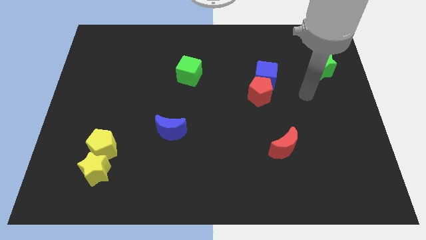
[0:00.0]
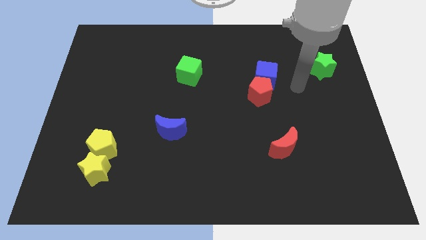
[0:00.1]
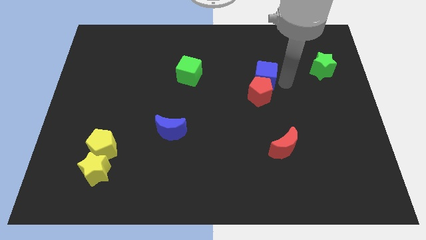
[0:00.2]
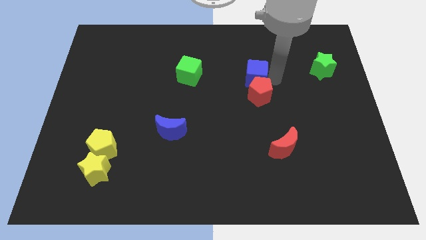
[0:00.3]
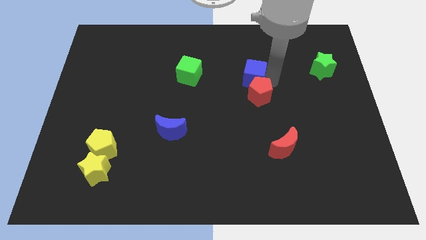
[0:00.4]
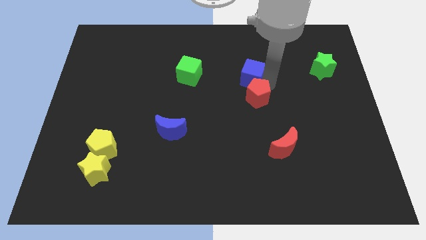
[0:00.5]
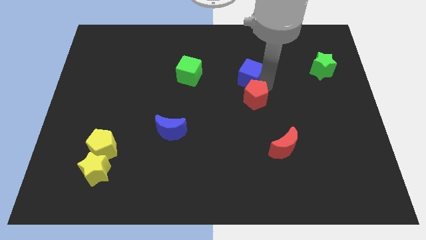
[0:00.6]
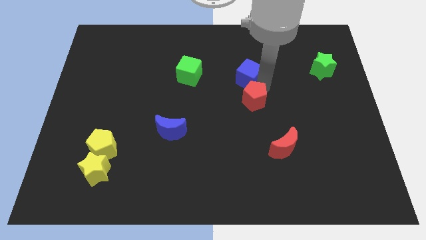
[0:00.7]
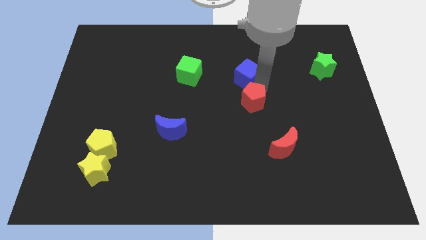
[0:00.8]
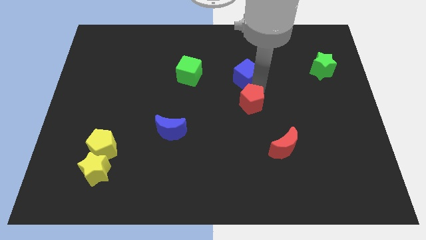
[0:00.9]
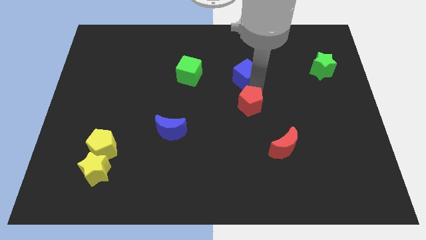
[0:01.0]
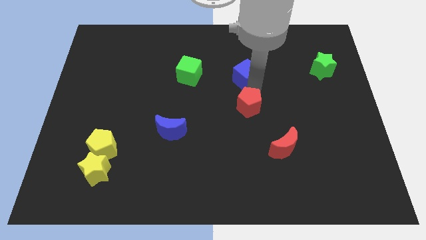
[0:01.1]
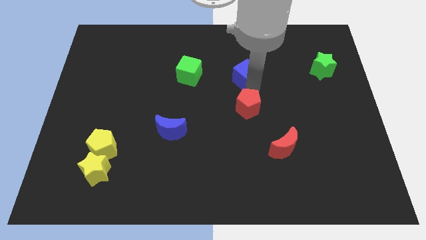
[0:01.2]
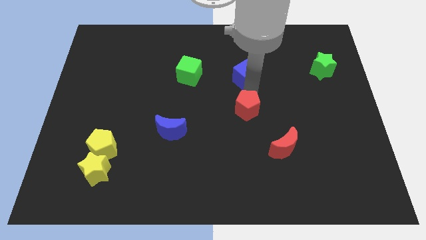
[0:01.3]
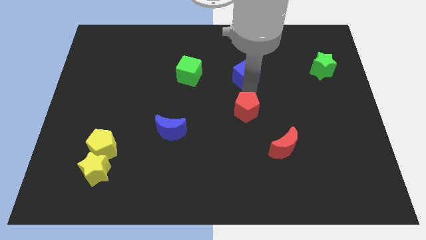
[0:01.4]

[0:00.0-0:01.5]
separate the red pentagon from the blue cube

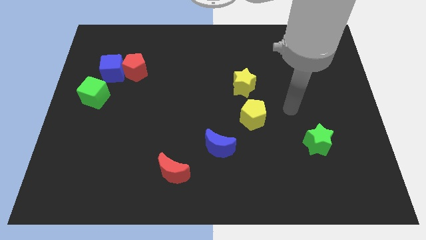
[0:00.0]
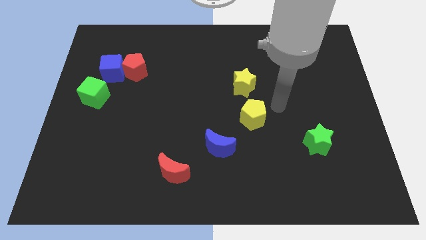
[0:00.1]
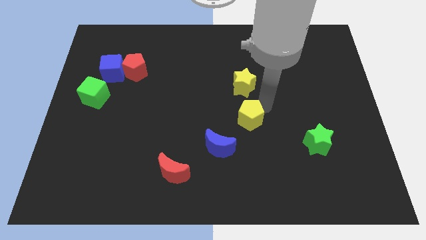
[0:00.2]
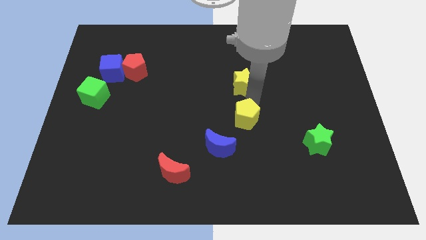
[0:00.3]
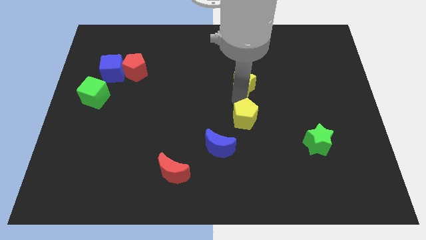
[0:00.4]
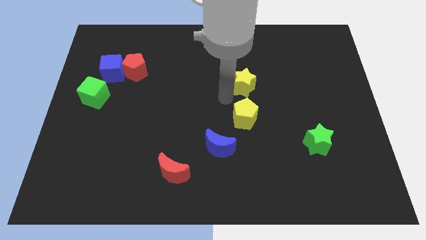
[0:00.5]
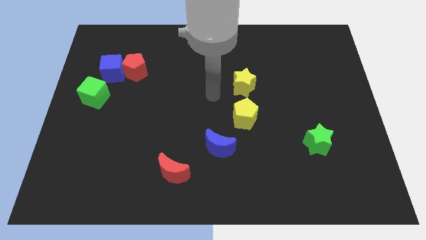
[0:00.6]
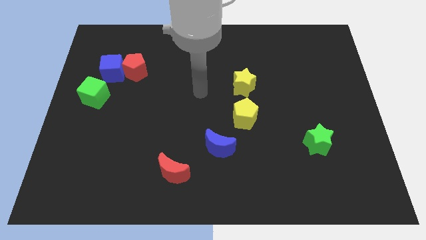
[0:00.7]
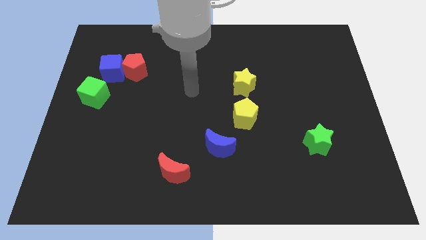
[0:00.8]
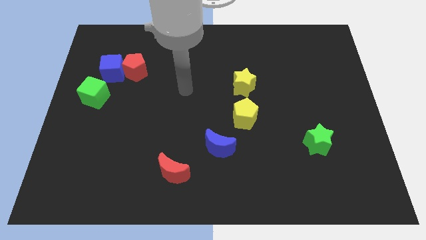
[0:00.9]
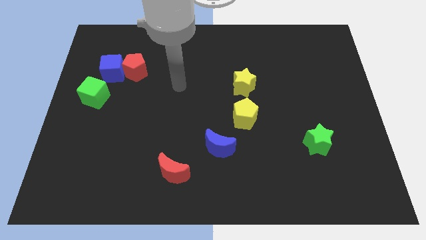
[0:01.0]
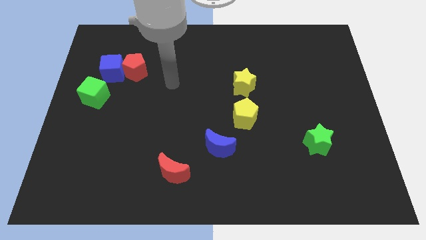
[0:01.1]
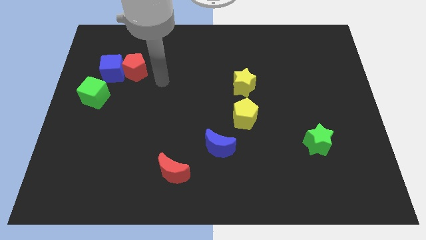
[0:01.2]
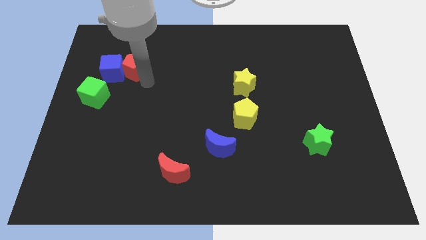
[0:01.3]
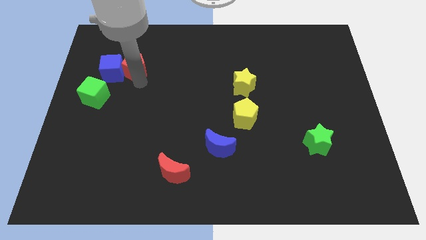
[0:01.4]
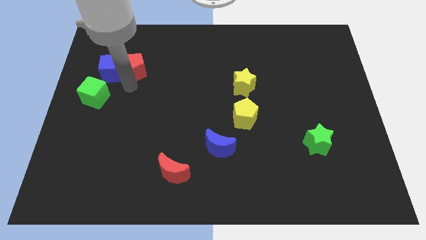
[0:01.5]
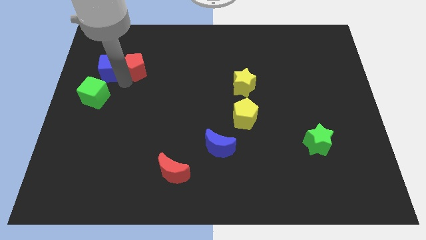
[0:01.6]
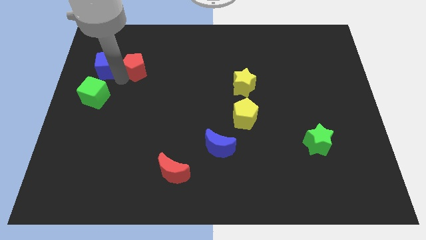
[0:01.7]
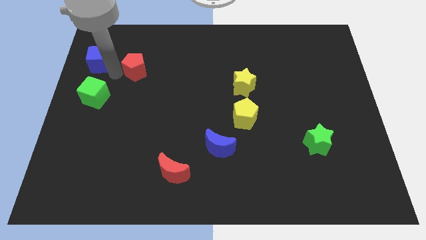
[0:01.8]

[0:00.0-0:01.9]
pull the red pentagon apart from the blue cube

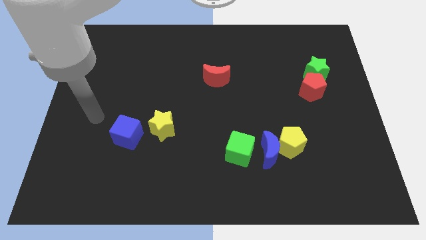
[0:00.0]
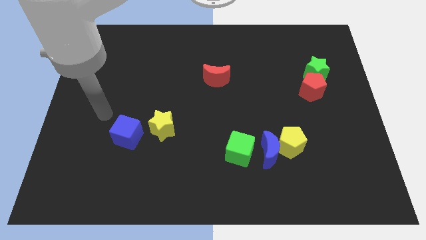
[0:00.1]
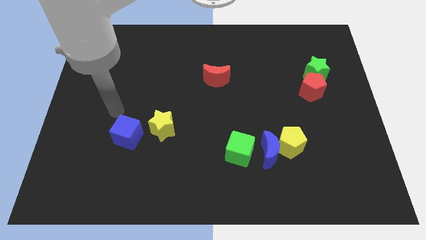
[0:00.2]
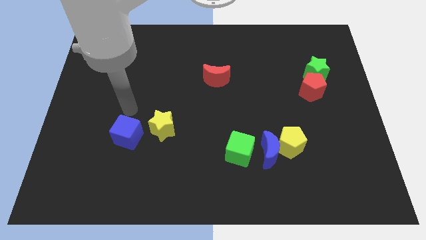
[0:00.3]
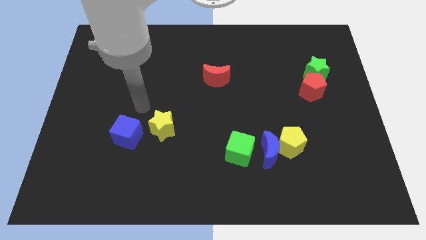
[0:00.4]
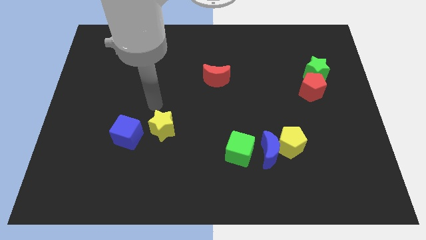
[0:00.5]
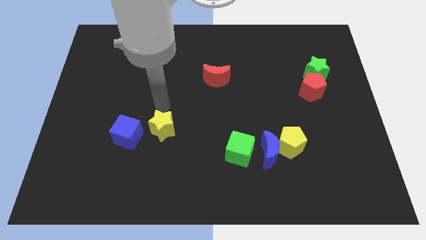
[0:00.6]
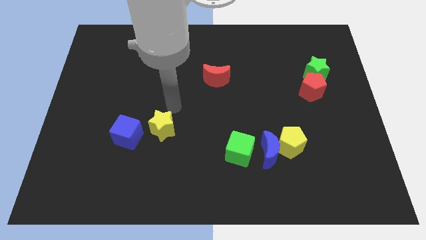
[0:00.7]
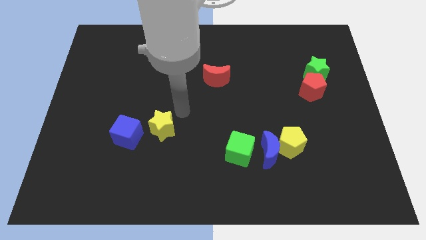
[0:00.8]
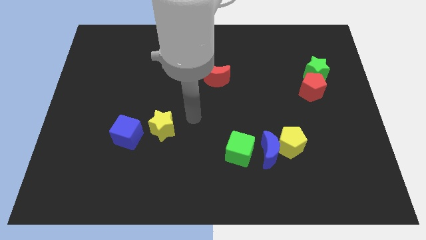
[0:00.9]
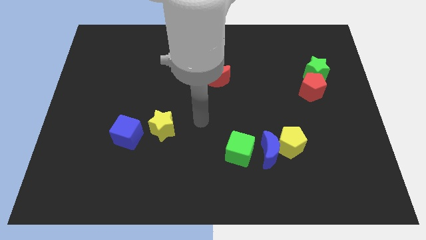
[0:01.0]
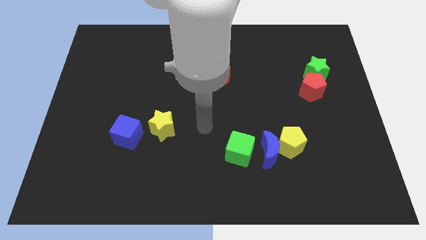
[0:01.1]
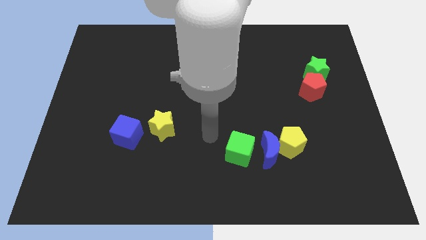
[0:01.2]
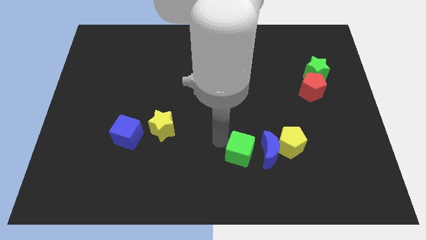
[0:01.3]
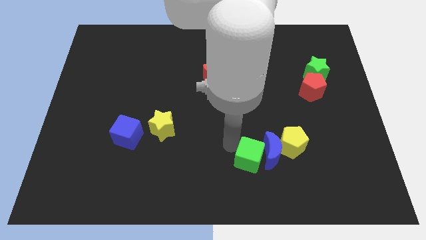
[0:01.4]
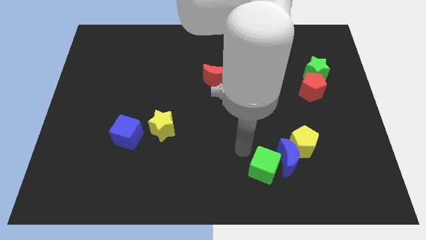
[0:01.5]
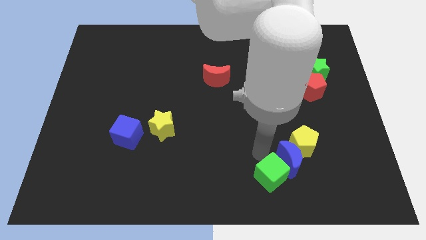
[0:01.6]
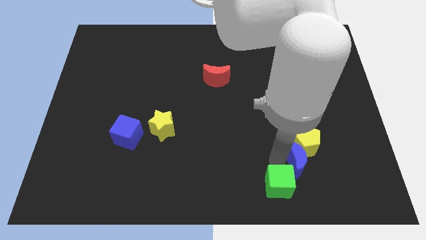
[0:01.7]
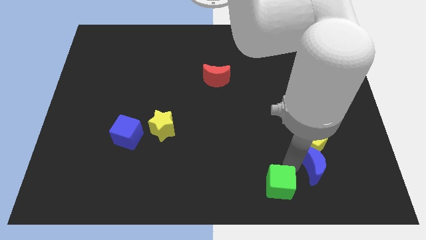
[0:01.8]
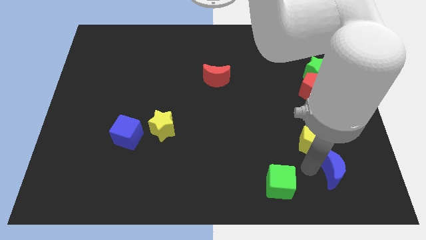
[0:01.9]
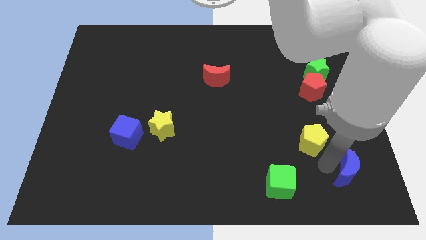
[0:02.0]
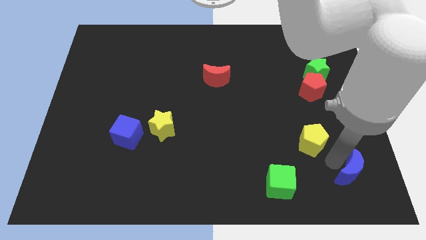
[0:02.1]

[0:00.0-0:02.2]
separate the yellow pentagon from the blue moon

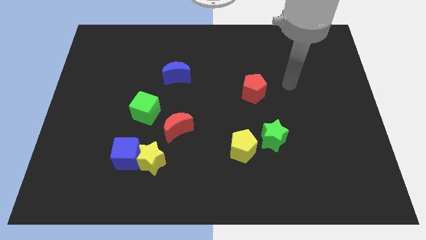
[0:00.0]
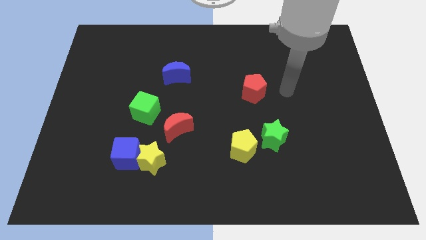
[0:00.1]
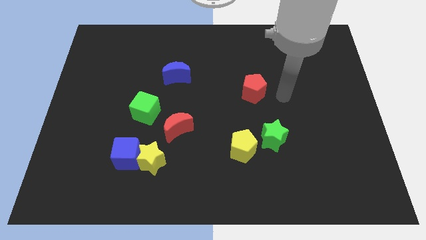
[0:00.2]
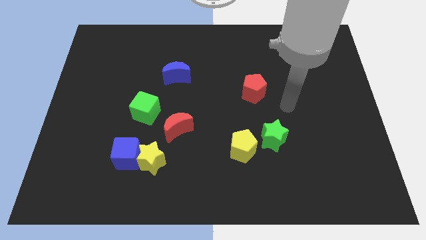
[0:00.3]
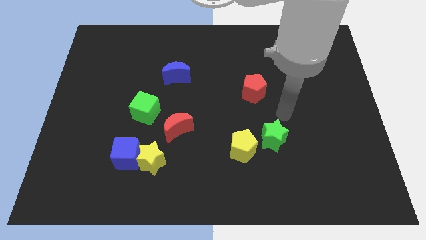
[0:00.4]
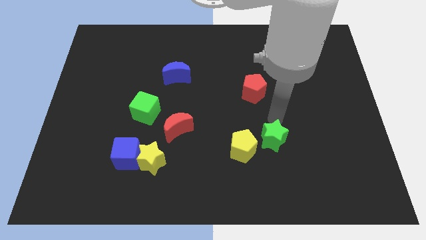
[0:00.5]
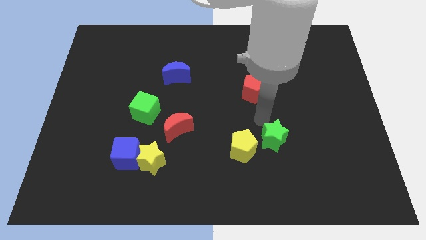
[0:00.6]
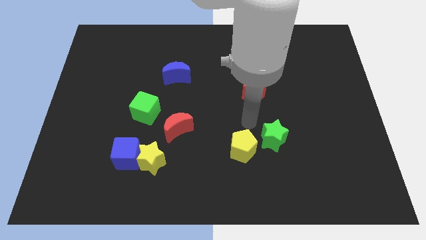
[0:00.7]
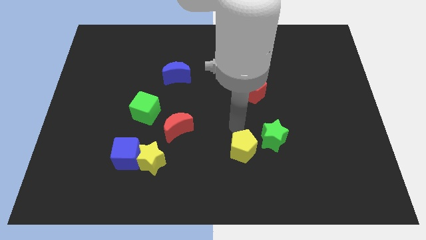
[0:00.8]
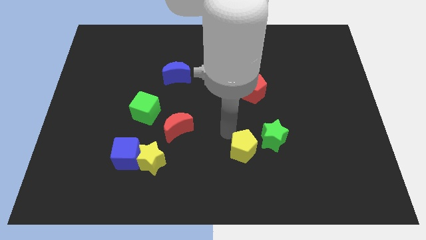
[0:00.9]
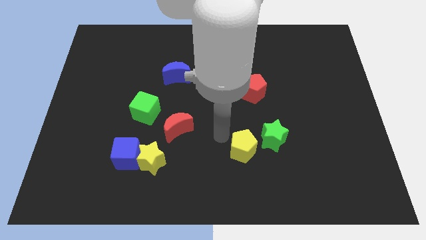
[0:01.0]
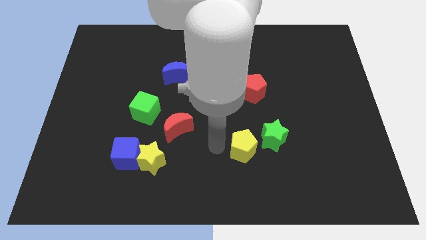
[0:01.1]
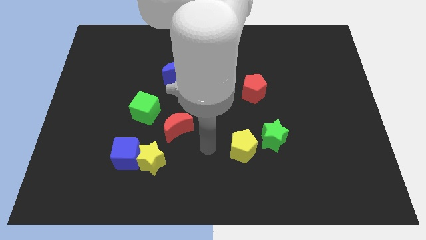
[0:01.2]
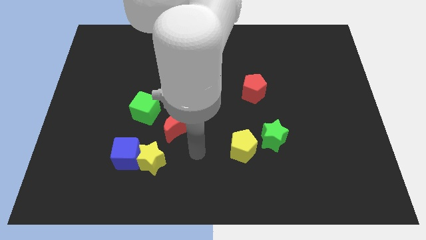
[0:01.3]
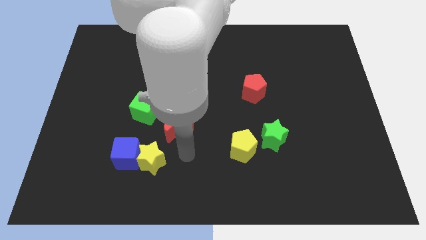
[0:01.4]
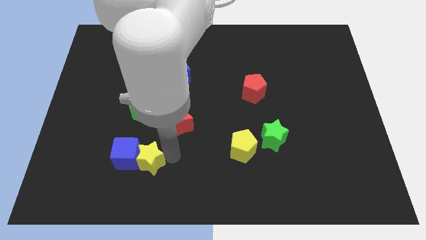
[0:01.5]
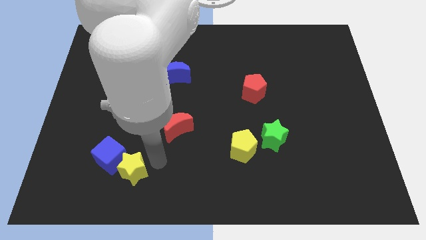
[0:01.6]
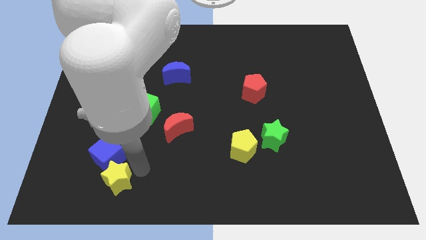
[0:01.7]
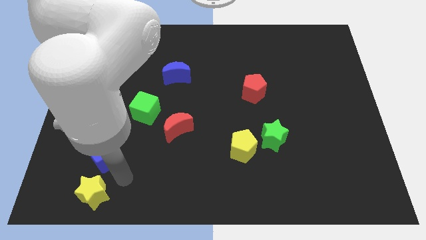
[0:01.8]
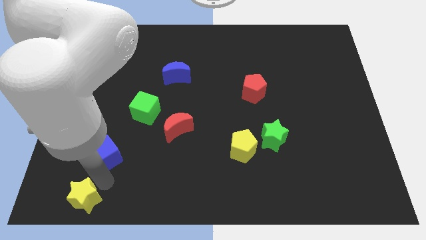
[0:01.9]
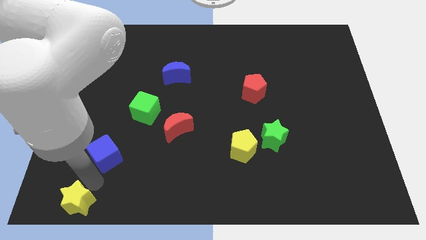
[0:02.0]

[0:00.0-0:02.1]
separate the blue cube from the yellow star

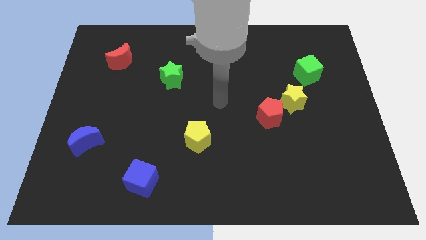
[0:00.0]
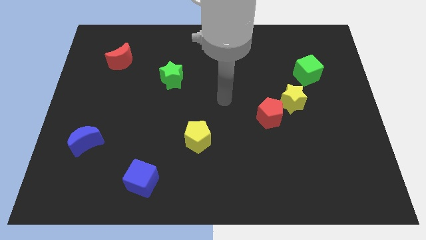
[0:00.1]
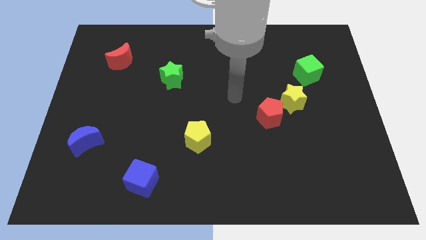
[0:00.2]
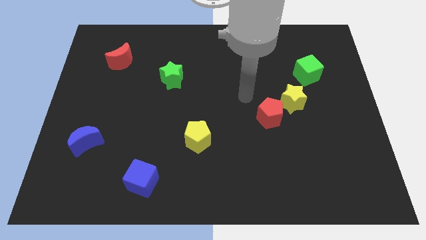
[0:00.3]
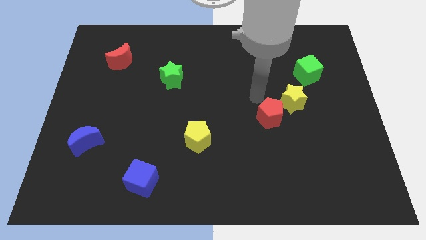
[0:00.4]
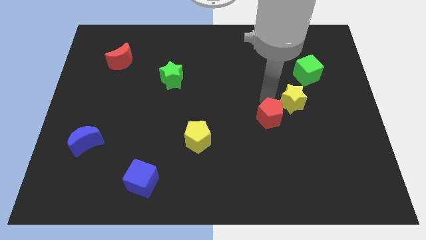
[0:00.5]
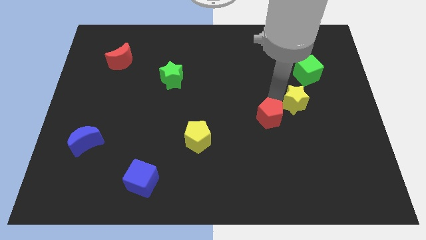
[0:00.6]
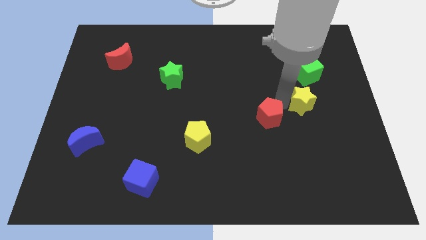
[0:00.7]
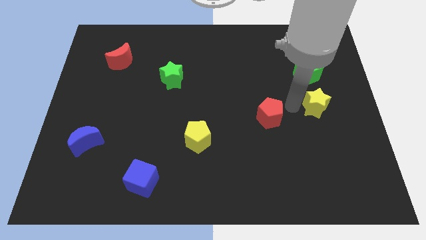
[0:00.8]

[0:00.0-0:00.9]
pull the red pentagon apart from the yellow star

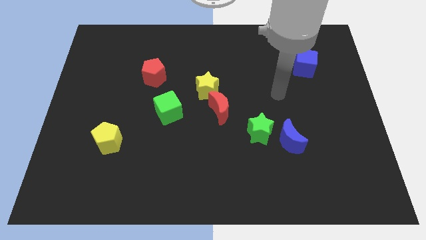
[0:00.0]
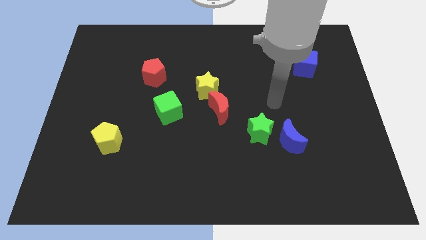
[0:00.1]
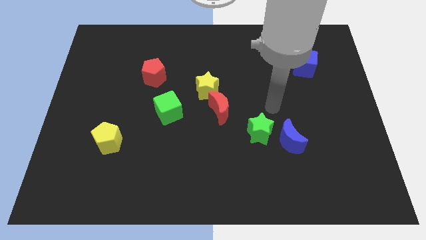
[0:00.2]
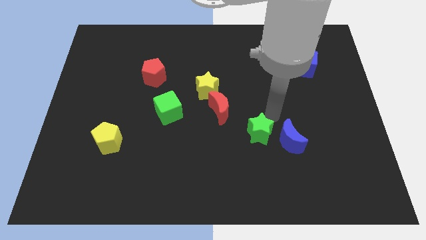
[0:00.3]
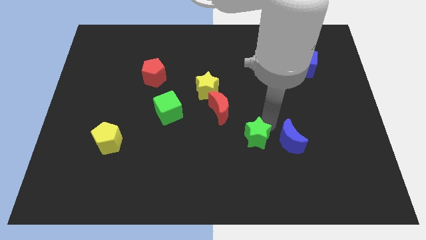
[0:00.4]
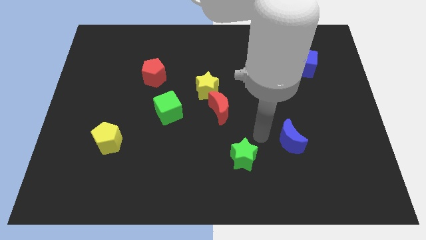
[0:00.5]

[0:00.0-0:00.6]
pull the blue moon apart from the green star

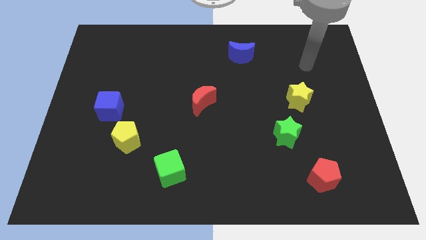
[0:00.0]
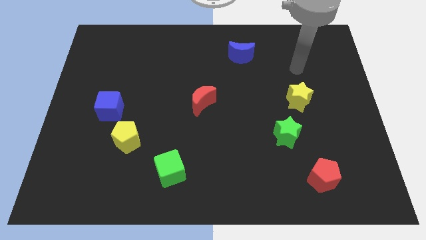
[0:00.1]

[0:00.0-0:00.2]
pull the blue cube apart from the yellow pentagon
